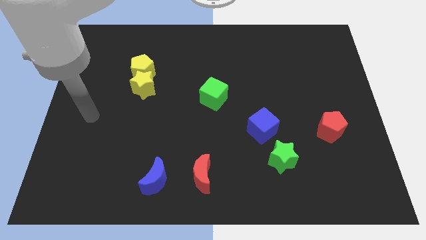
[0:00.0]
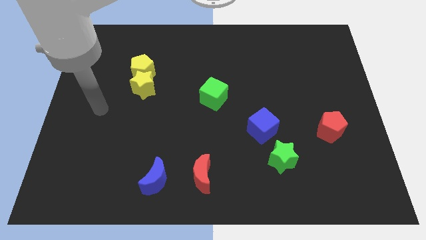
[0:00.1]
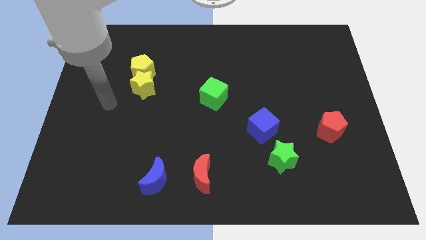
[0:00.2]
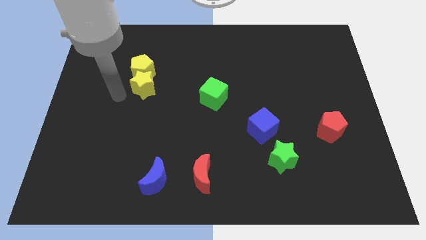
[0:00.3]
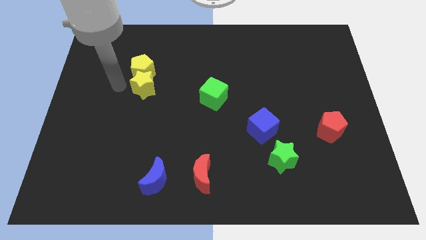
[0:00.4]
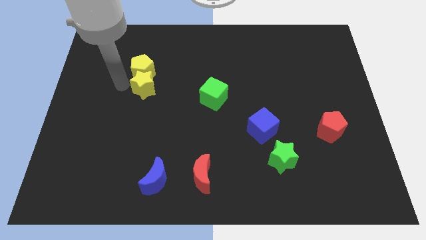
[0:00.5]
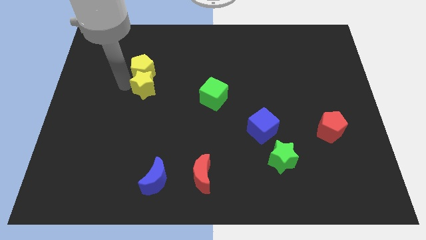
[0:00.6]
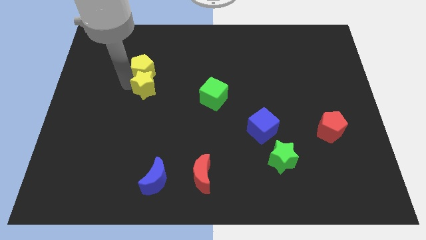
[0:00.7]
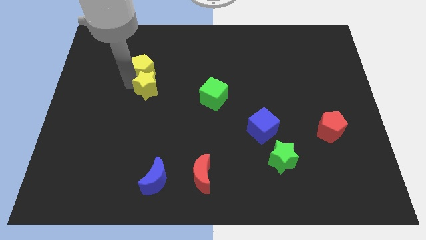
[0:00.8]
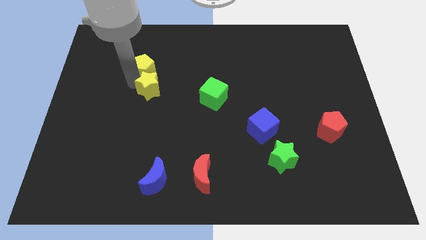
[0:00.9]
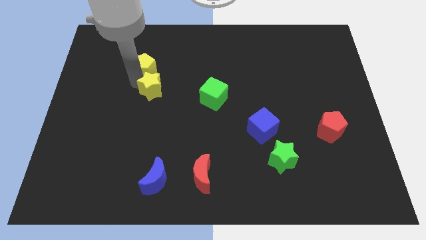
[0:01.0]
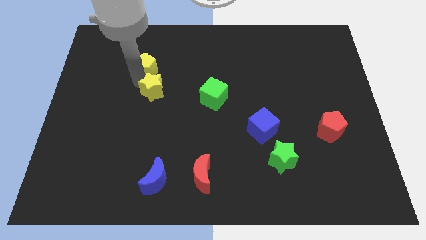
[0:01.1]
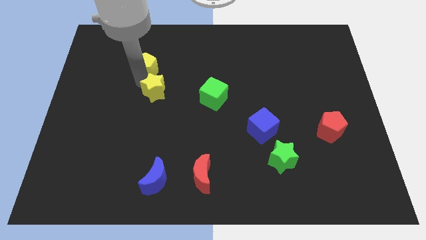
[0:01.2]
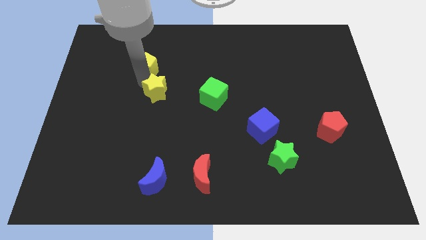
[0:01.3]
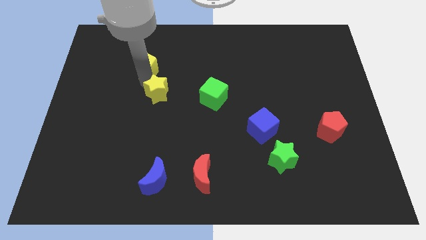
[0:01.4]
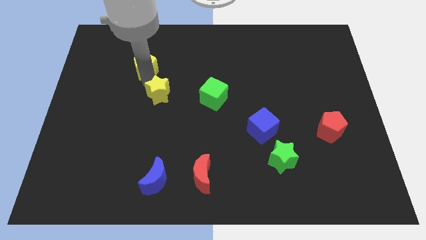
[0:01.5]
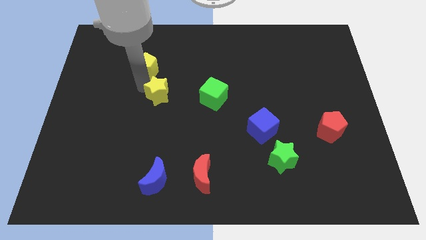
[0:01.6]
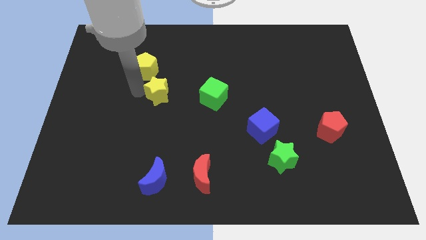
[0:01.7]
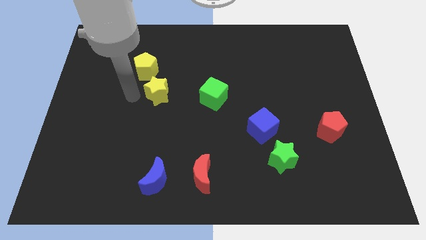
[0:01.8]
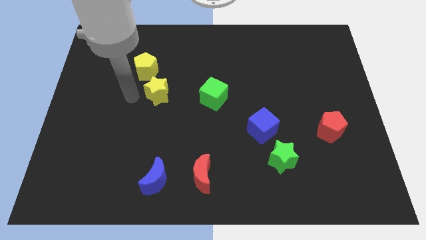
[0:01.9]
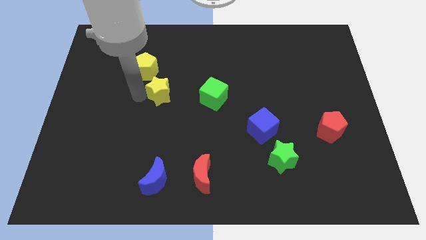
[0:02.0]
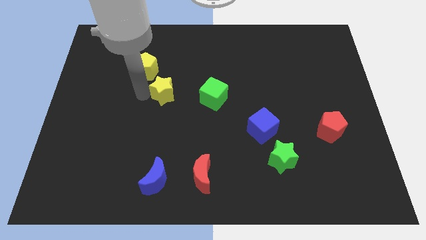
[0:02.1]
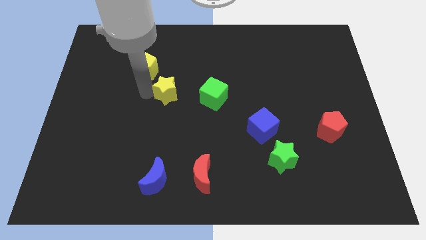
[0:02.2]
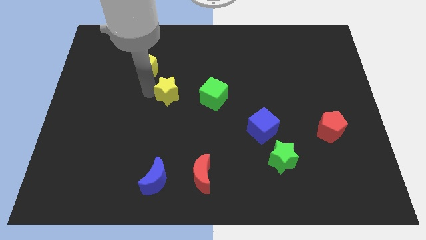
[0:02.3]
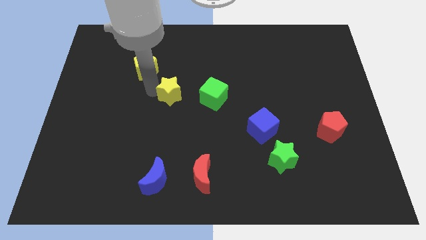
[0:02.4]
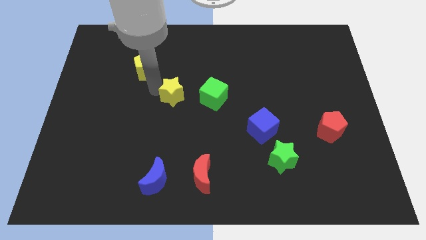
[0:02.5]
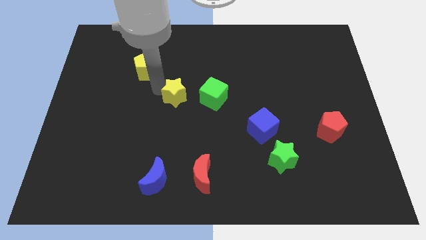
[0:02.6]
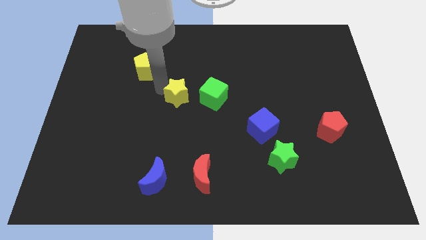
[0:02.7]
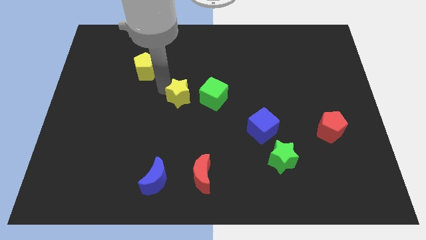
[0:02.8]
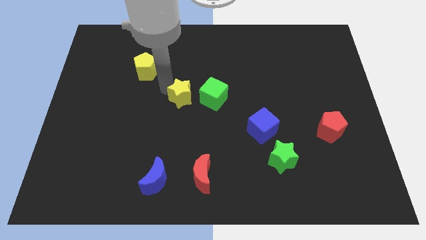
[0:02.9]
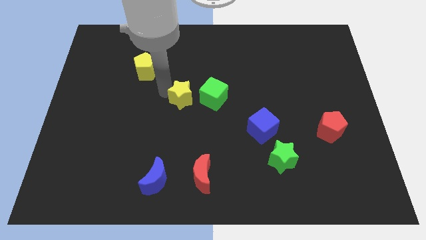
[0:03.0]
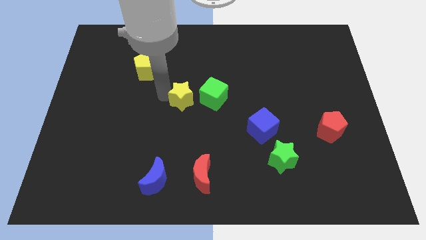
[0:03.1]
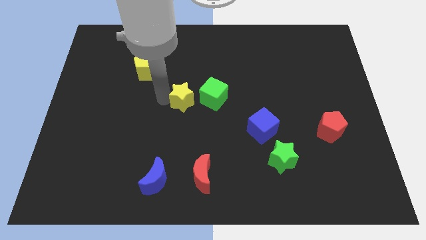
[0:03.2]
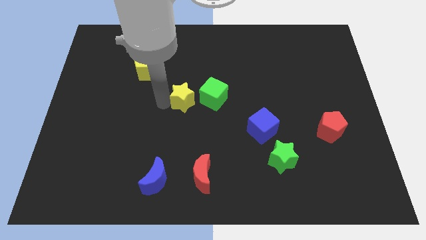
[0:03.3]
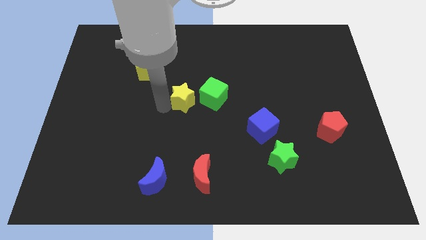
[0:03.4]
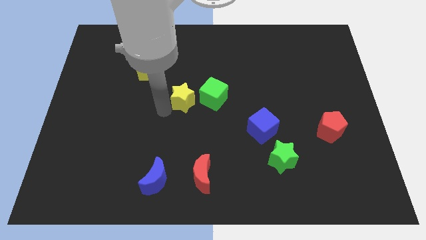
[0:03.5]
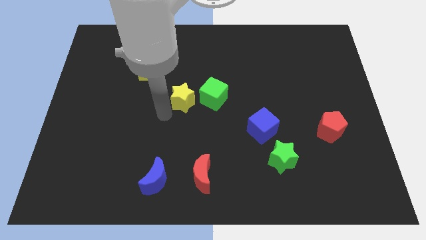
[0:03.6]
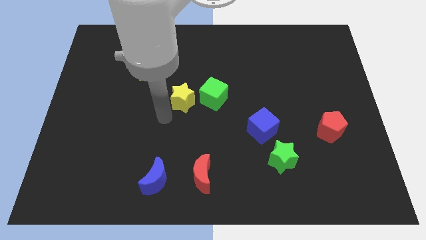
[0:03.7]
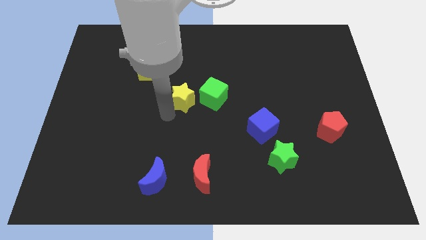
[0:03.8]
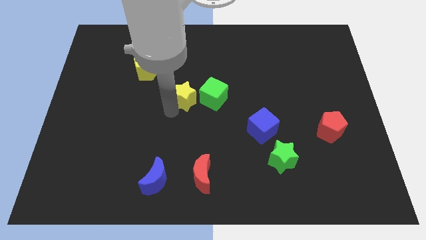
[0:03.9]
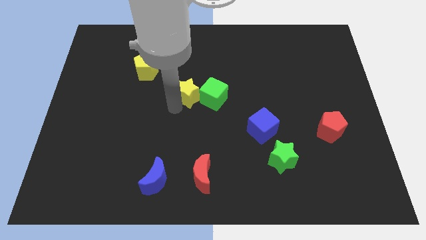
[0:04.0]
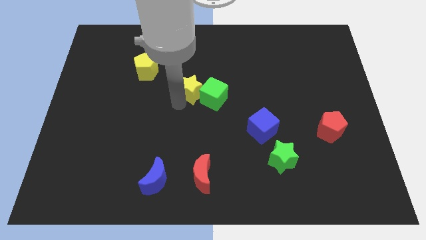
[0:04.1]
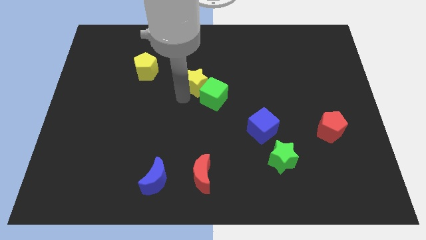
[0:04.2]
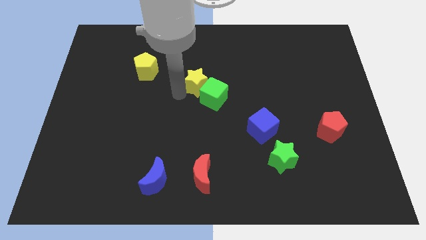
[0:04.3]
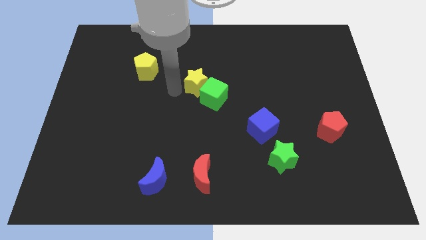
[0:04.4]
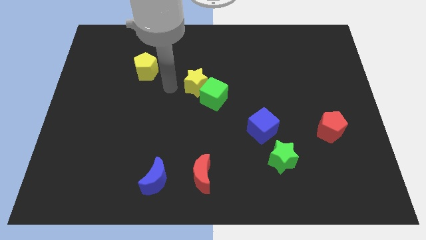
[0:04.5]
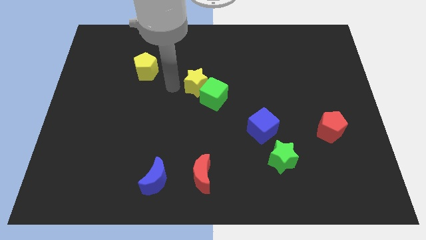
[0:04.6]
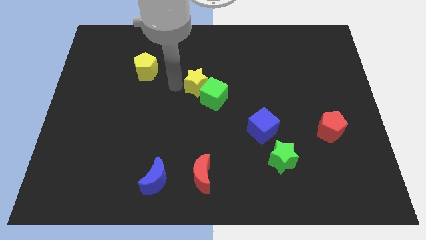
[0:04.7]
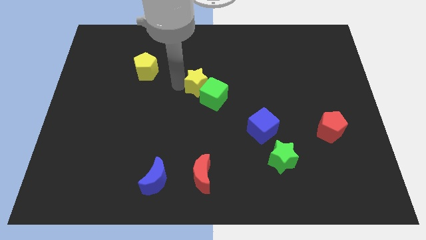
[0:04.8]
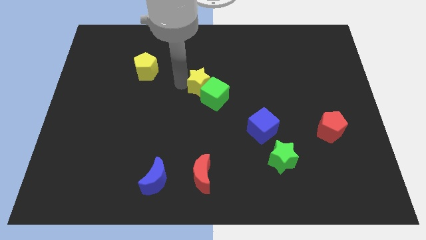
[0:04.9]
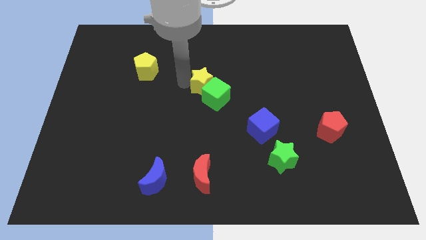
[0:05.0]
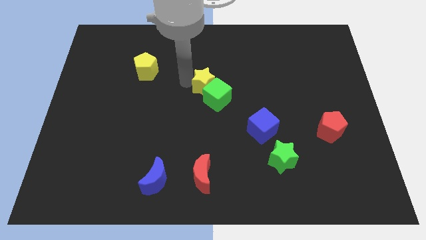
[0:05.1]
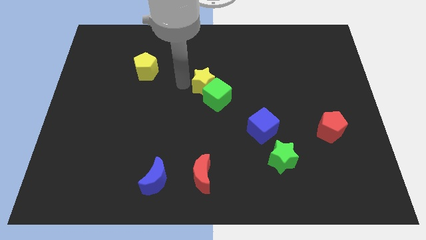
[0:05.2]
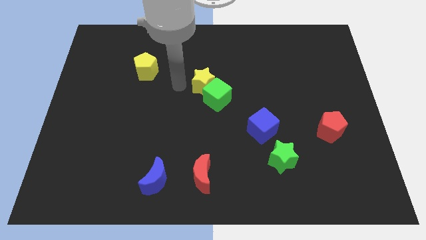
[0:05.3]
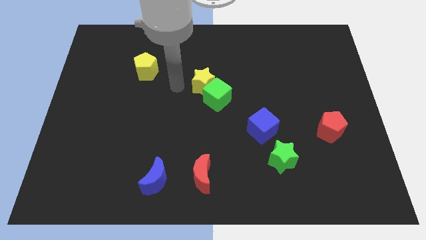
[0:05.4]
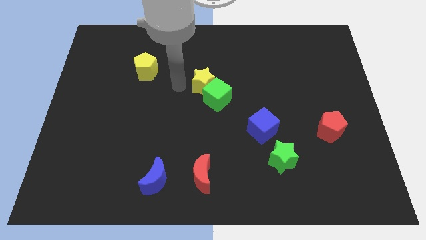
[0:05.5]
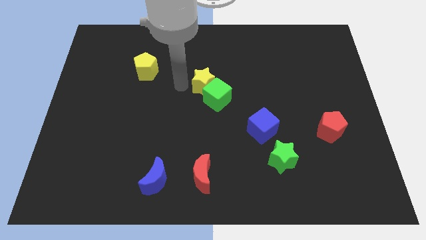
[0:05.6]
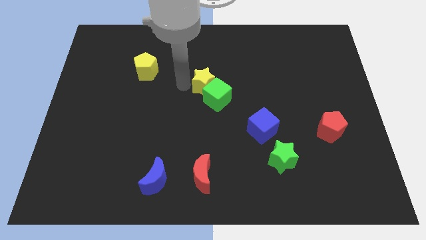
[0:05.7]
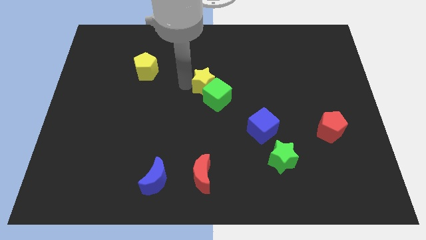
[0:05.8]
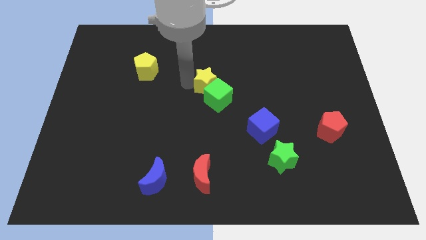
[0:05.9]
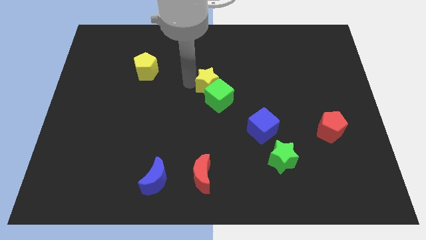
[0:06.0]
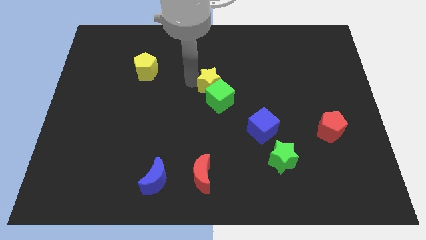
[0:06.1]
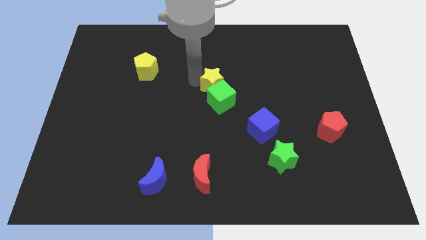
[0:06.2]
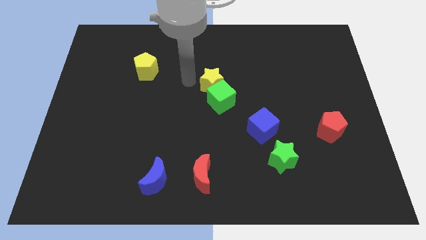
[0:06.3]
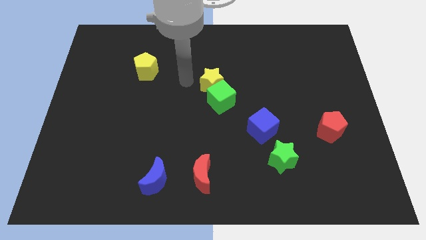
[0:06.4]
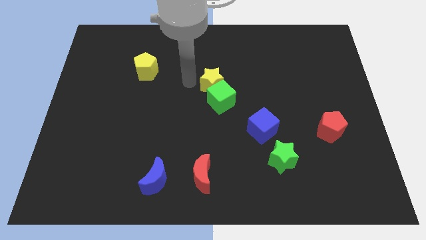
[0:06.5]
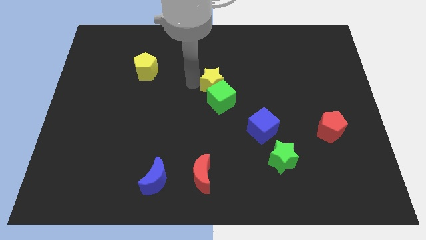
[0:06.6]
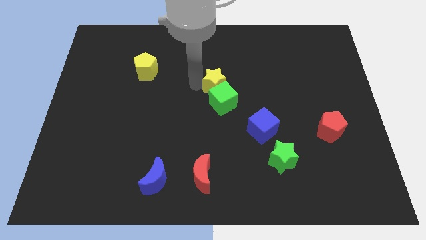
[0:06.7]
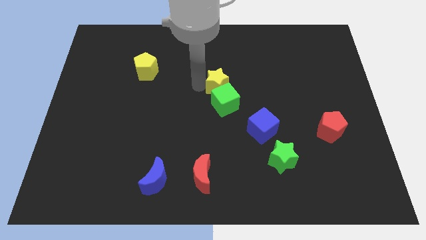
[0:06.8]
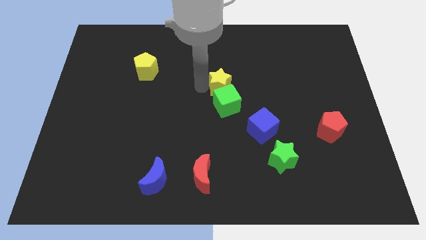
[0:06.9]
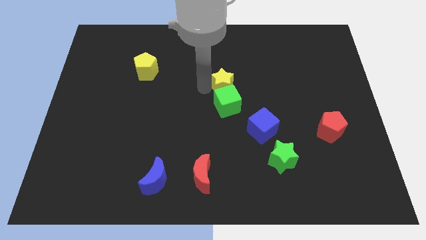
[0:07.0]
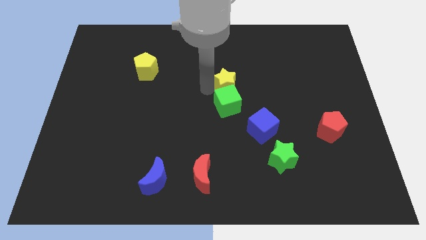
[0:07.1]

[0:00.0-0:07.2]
push the yellow star right

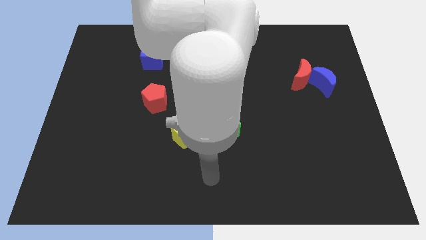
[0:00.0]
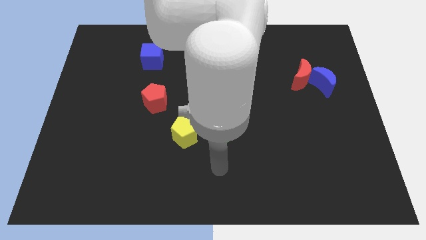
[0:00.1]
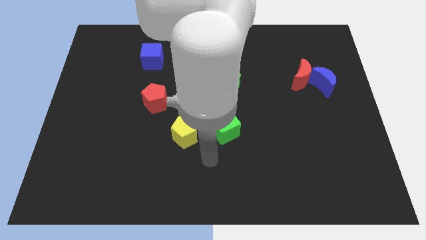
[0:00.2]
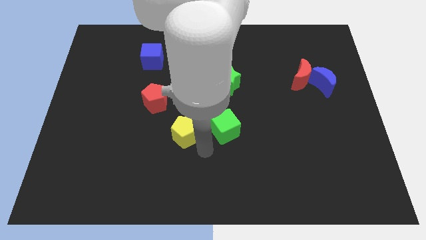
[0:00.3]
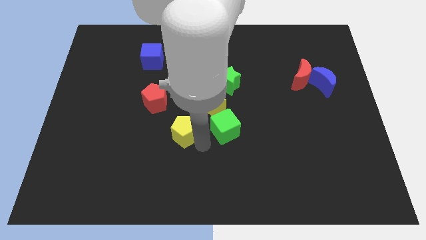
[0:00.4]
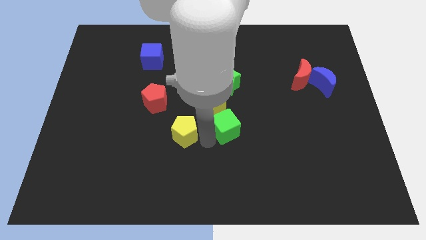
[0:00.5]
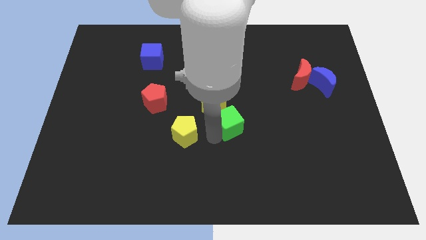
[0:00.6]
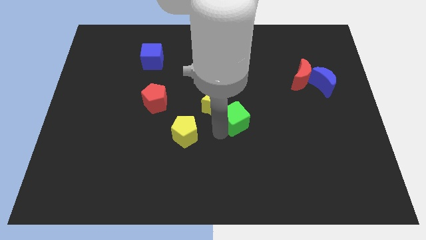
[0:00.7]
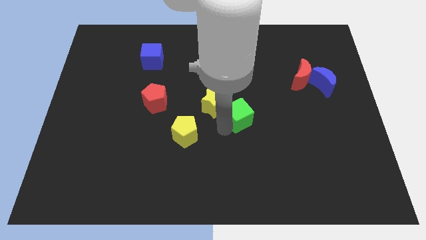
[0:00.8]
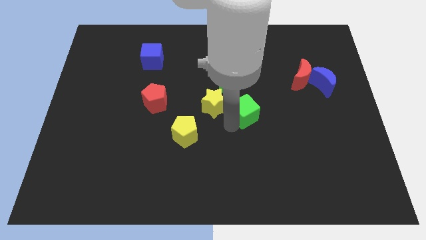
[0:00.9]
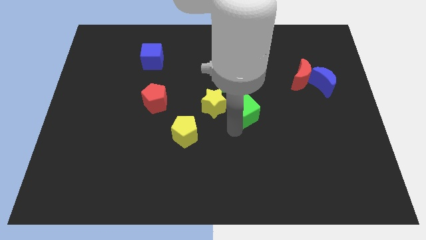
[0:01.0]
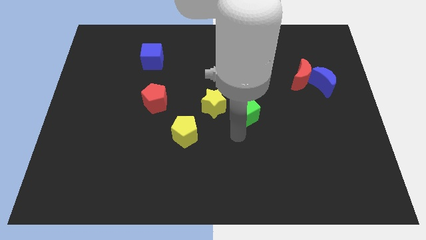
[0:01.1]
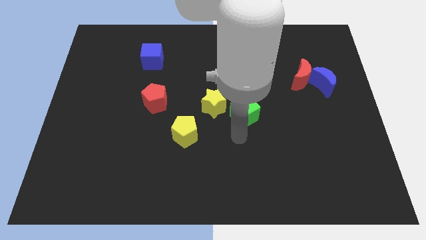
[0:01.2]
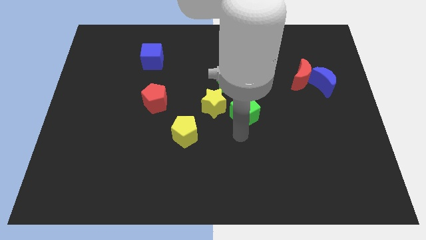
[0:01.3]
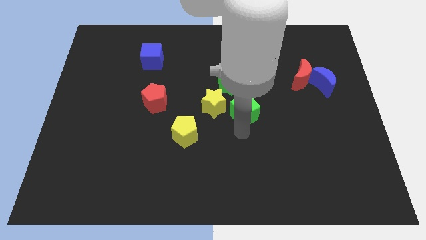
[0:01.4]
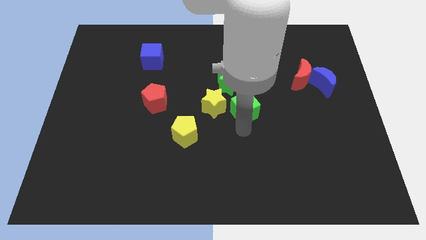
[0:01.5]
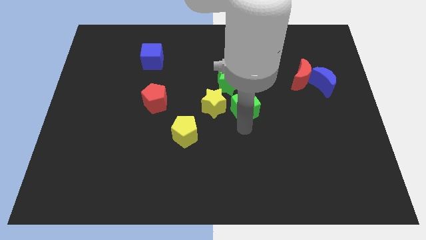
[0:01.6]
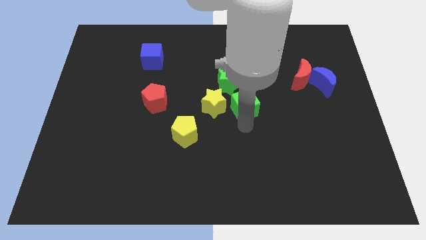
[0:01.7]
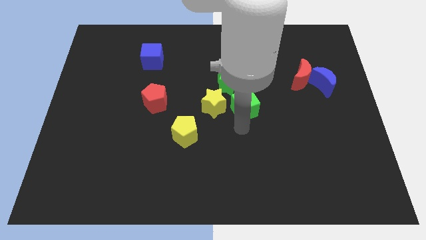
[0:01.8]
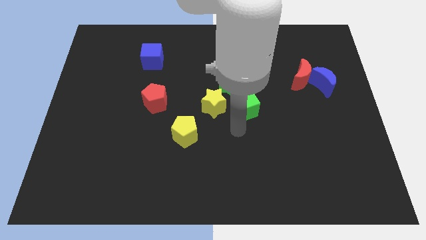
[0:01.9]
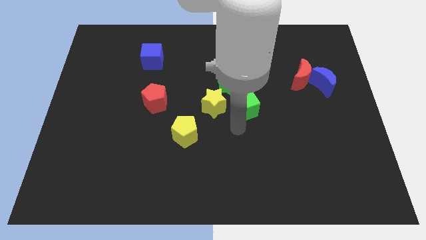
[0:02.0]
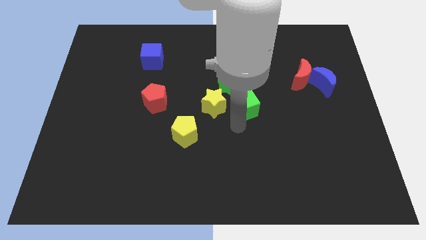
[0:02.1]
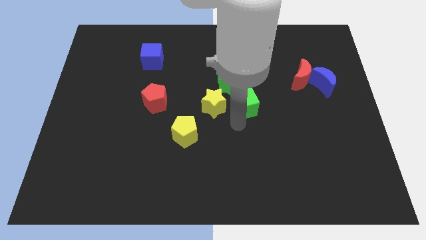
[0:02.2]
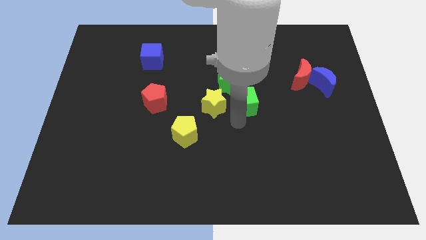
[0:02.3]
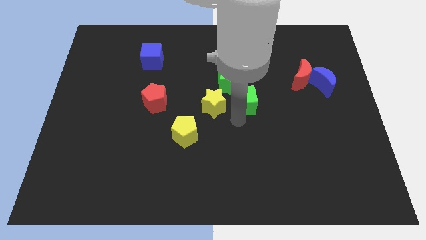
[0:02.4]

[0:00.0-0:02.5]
slide the green cube upwards a bit
